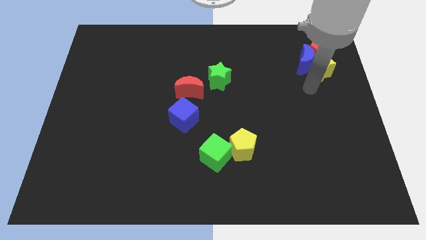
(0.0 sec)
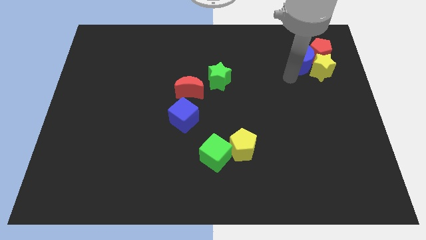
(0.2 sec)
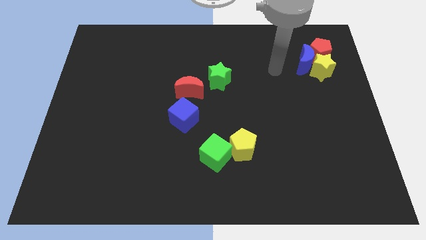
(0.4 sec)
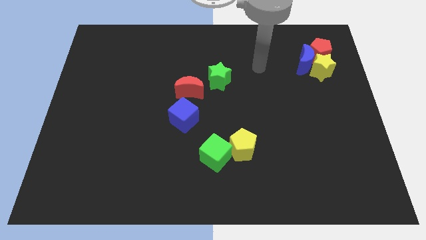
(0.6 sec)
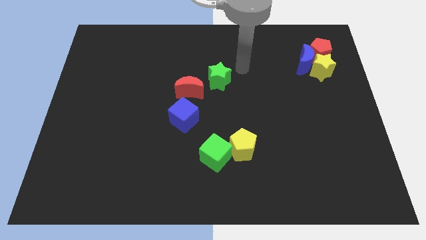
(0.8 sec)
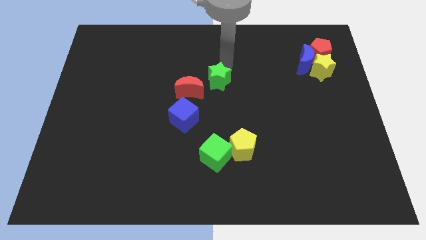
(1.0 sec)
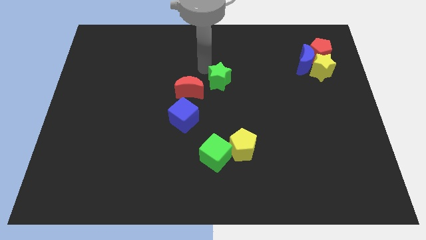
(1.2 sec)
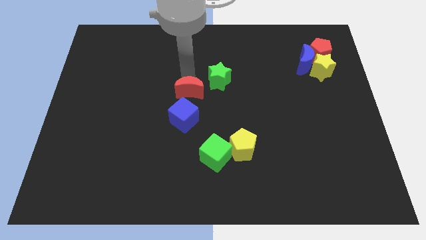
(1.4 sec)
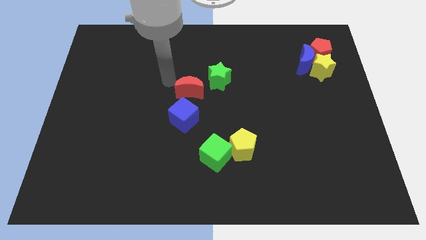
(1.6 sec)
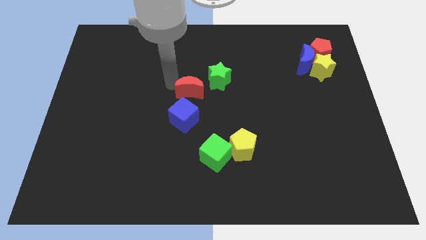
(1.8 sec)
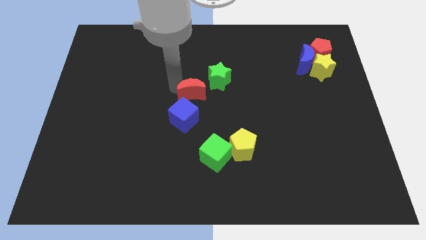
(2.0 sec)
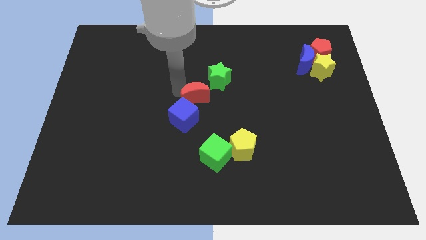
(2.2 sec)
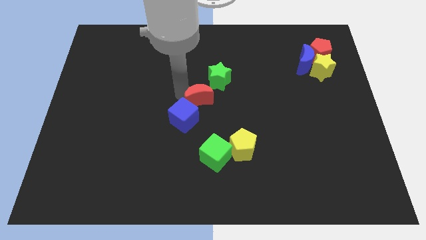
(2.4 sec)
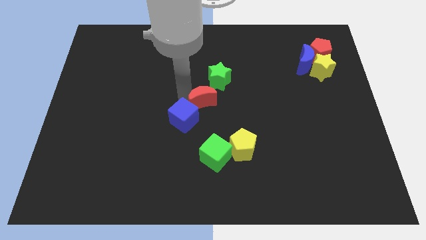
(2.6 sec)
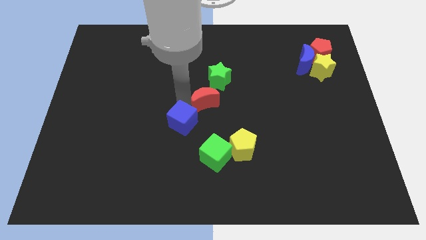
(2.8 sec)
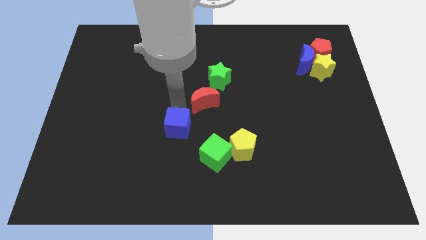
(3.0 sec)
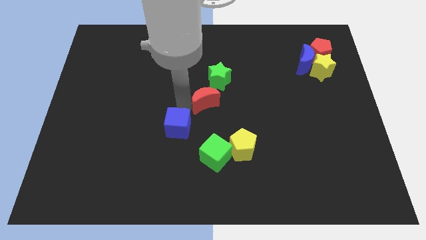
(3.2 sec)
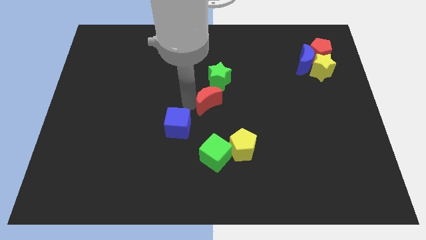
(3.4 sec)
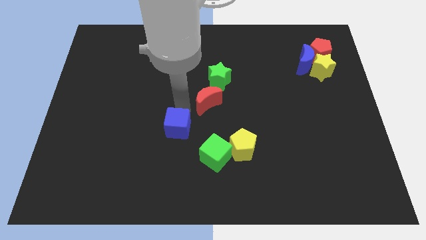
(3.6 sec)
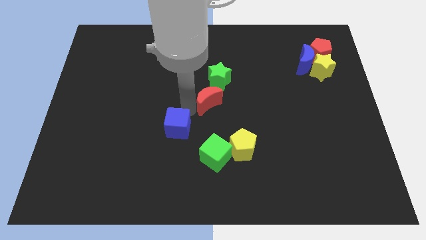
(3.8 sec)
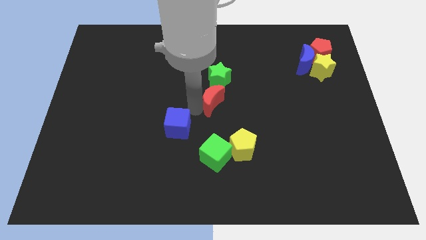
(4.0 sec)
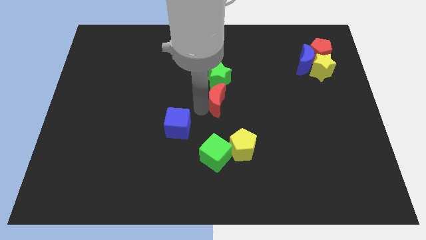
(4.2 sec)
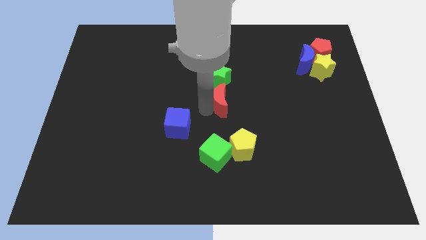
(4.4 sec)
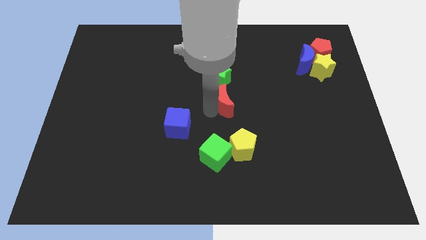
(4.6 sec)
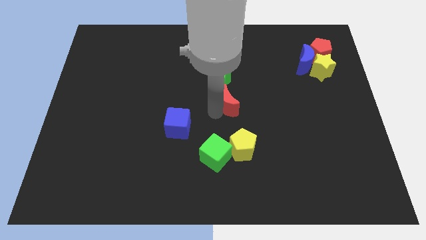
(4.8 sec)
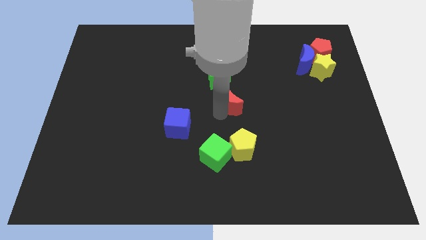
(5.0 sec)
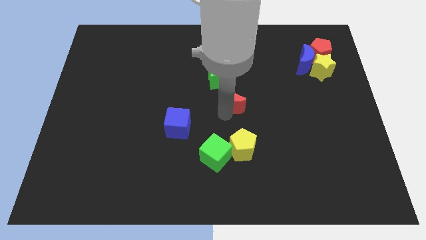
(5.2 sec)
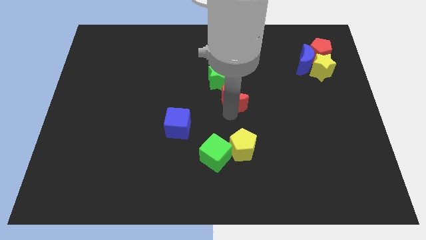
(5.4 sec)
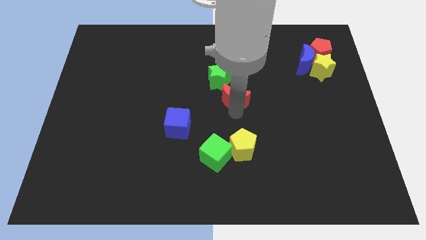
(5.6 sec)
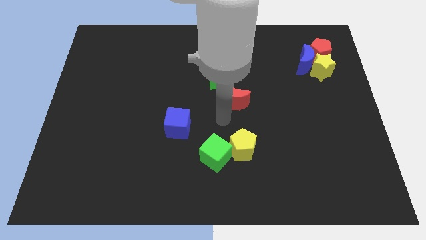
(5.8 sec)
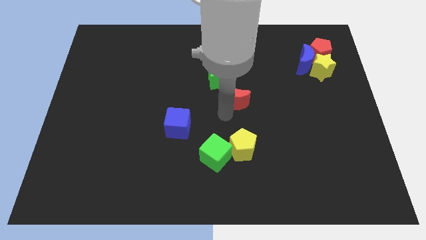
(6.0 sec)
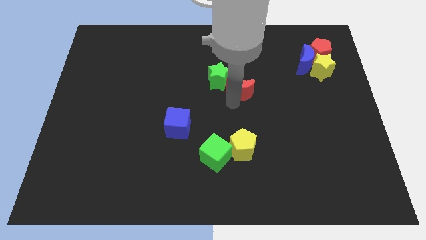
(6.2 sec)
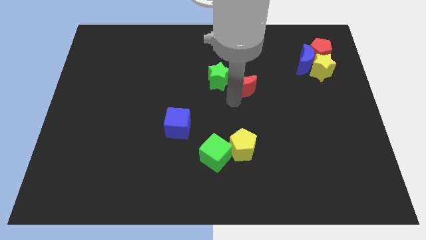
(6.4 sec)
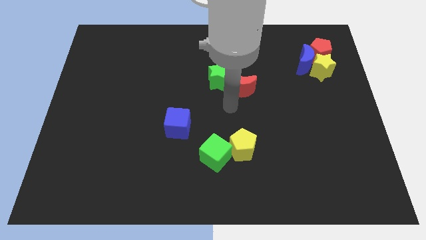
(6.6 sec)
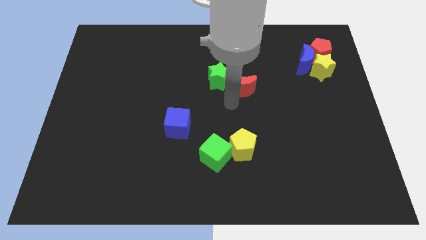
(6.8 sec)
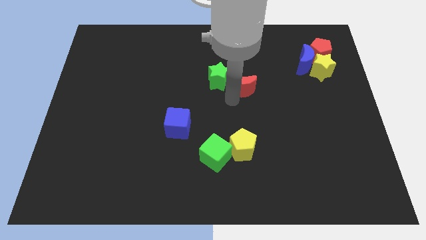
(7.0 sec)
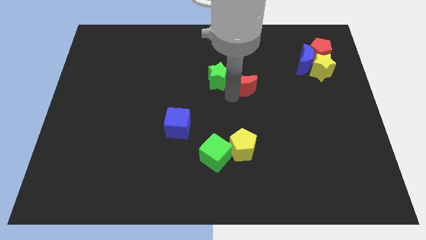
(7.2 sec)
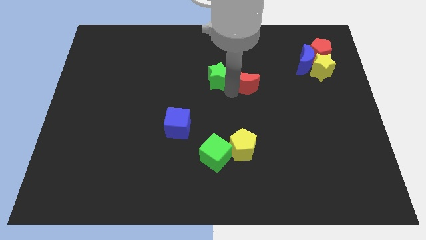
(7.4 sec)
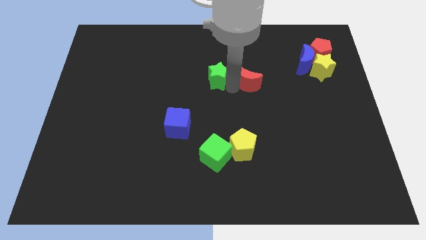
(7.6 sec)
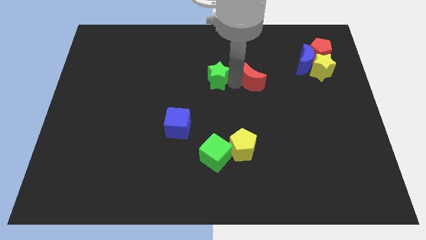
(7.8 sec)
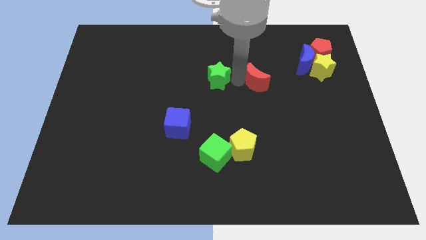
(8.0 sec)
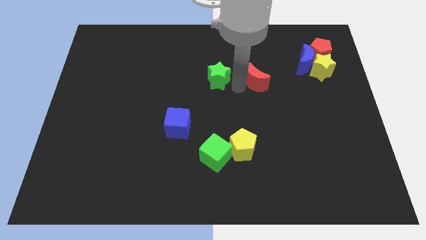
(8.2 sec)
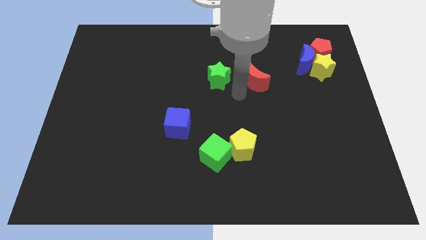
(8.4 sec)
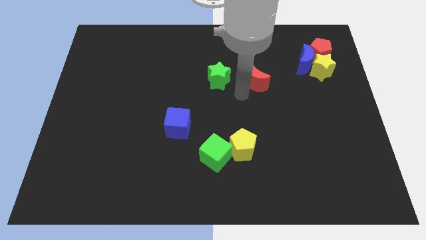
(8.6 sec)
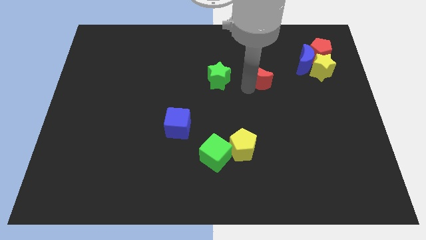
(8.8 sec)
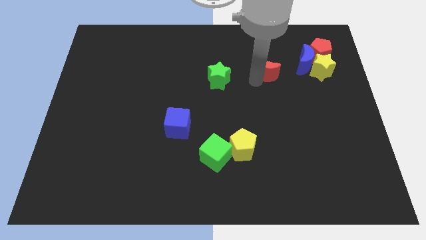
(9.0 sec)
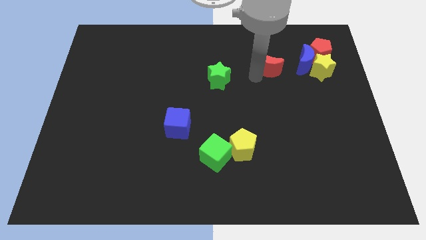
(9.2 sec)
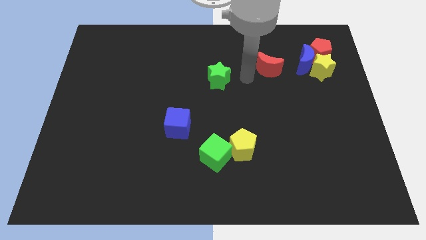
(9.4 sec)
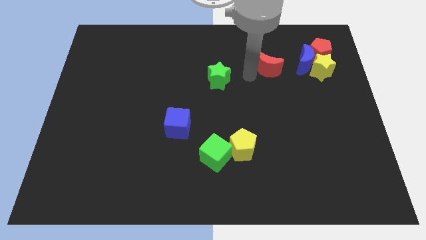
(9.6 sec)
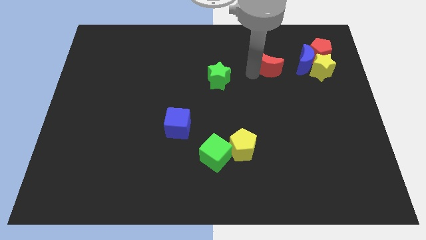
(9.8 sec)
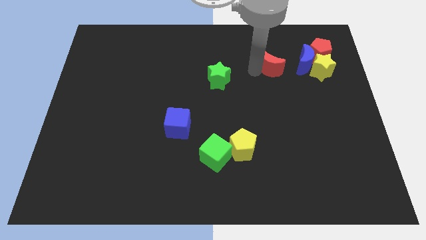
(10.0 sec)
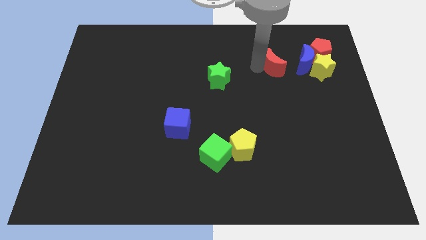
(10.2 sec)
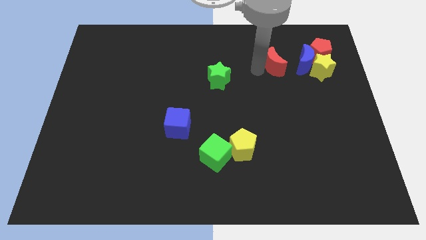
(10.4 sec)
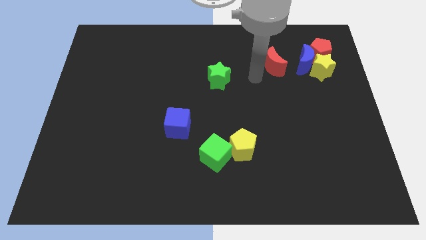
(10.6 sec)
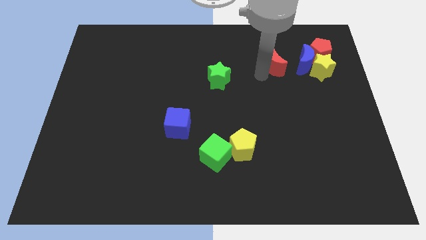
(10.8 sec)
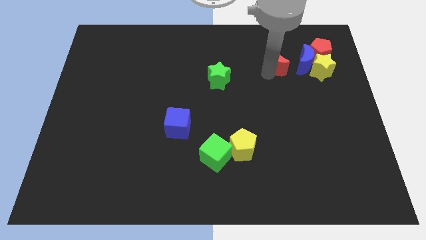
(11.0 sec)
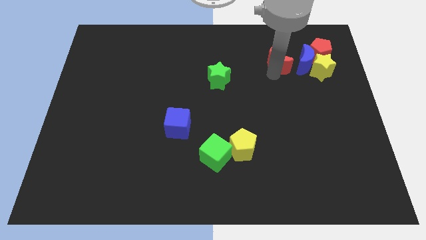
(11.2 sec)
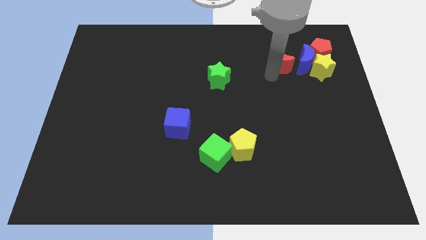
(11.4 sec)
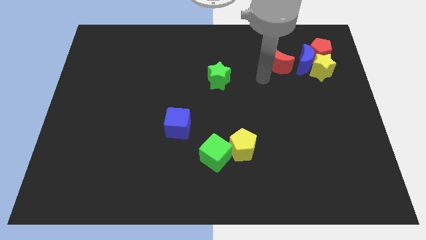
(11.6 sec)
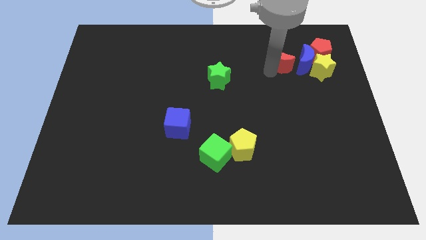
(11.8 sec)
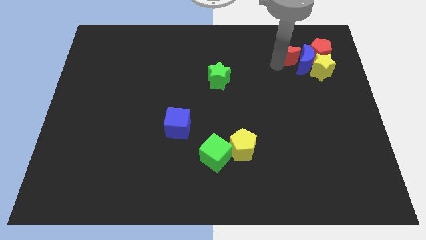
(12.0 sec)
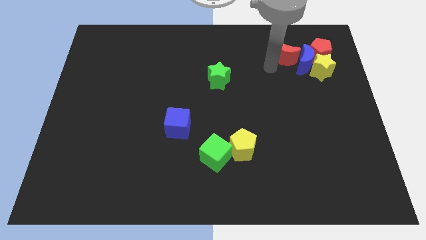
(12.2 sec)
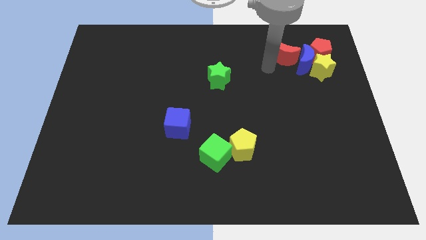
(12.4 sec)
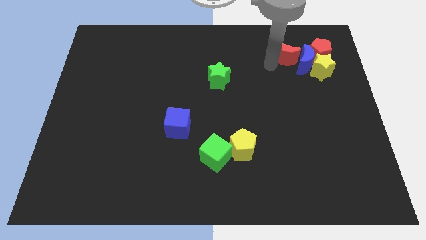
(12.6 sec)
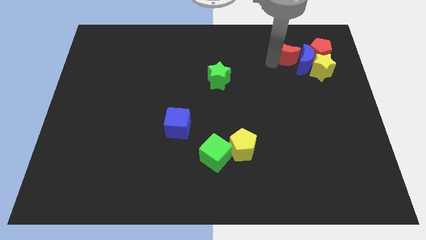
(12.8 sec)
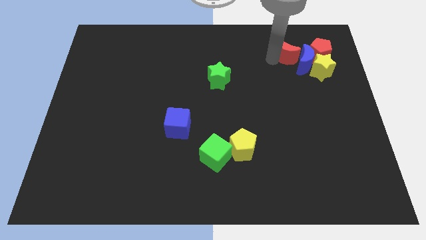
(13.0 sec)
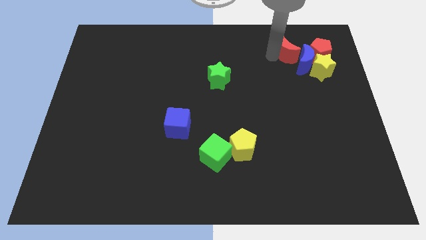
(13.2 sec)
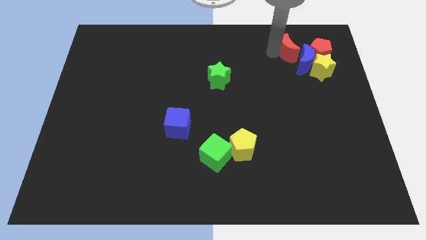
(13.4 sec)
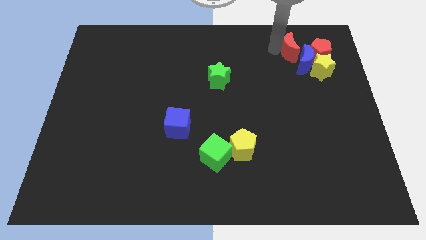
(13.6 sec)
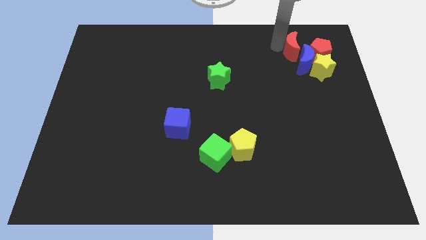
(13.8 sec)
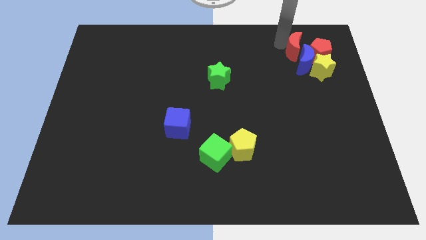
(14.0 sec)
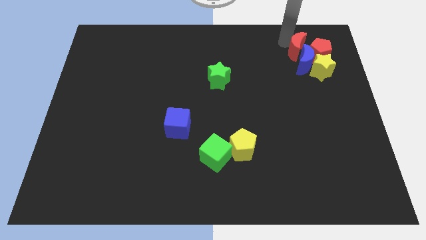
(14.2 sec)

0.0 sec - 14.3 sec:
slide the red moon towards the red pentagon
